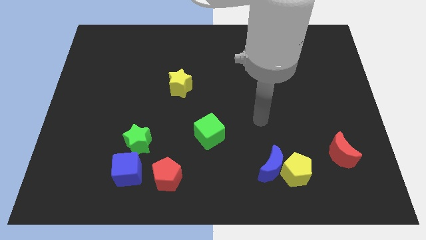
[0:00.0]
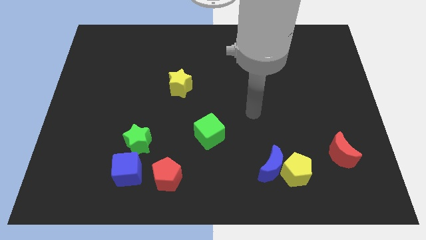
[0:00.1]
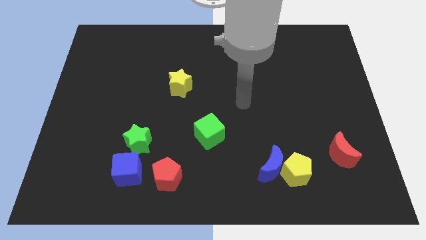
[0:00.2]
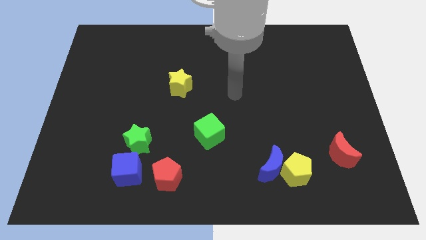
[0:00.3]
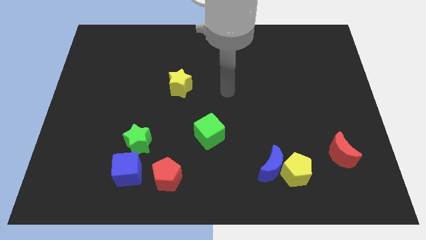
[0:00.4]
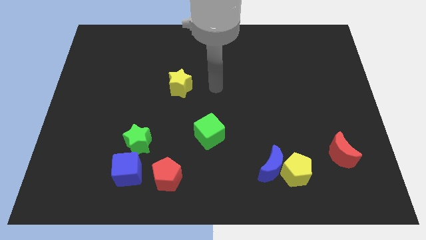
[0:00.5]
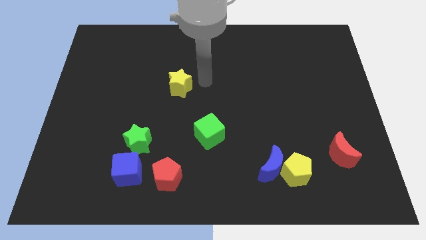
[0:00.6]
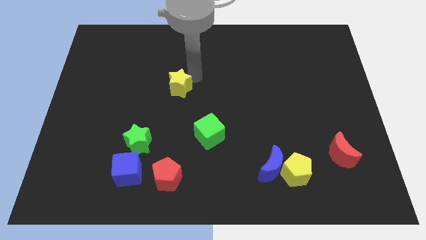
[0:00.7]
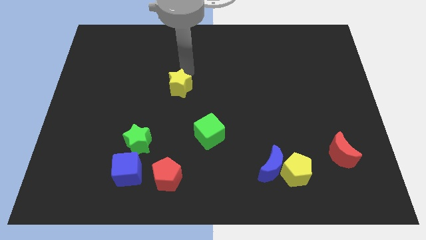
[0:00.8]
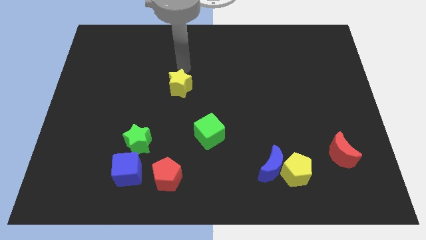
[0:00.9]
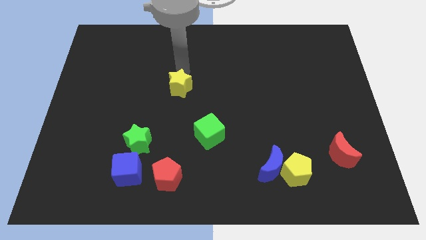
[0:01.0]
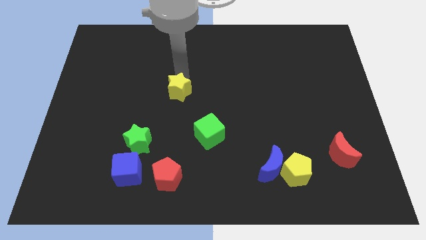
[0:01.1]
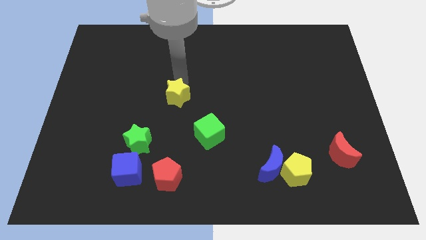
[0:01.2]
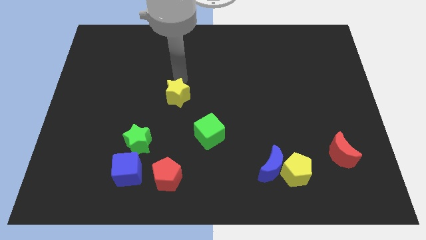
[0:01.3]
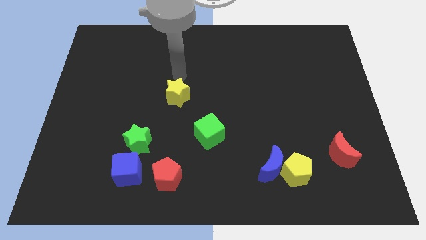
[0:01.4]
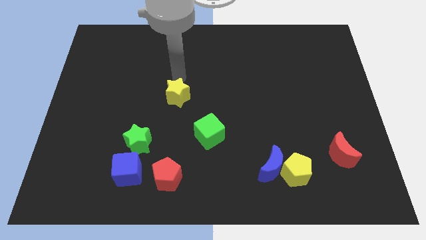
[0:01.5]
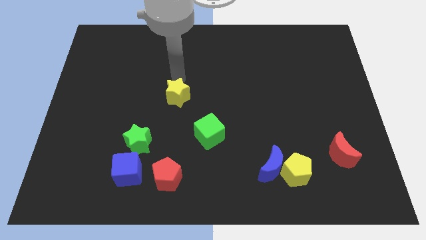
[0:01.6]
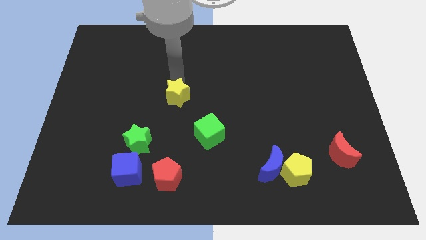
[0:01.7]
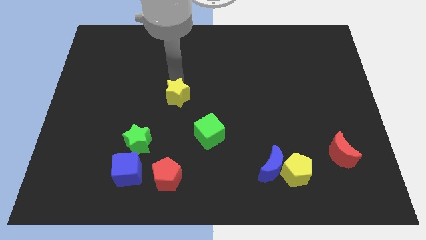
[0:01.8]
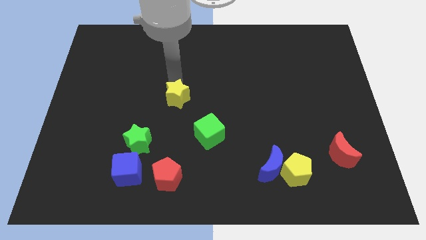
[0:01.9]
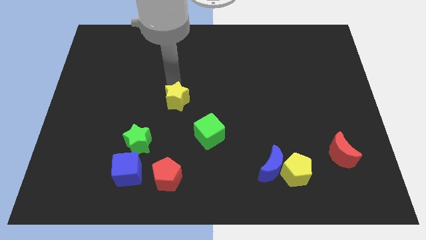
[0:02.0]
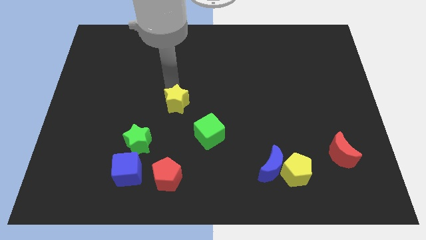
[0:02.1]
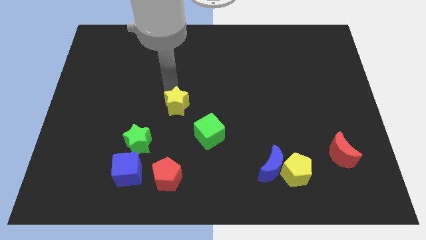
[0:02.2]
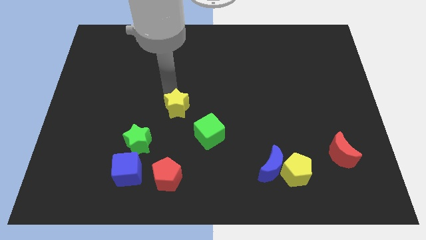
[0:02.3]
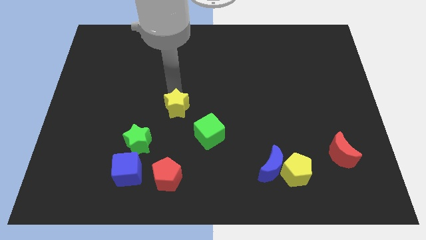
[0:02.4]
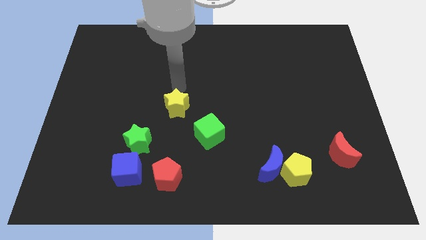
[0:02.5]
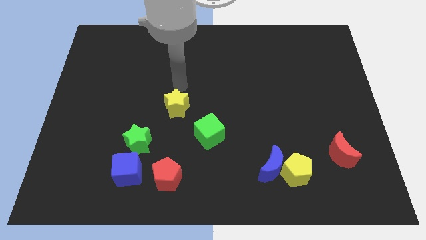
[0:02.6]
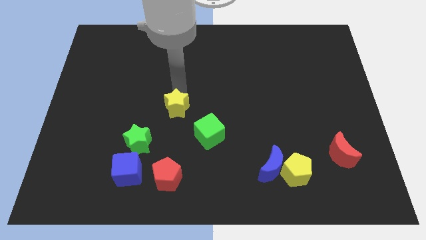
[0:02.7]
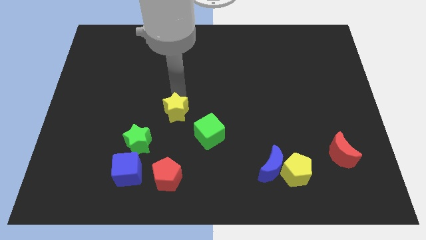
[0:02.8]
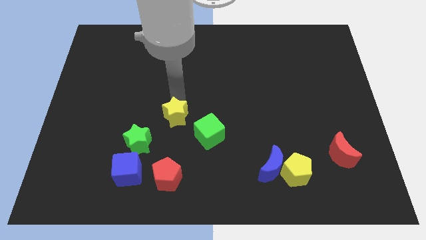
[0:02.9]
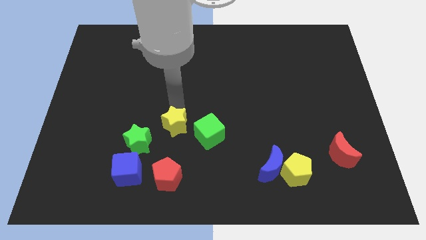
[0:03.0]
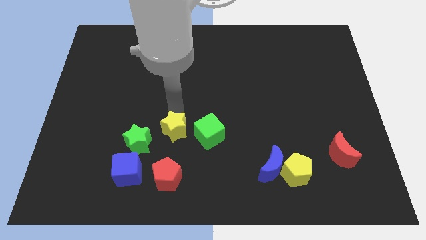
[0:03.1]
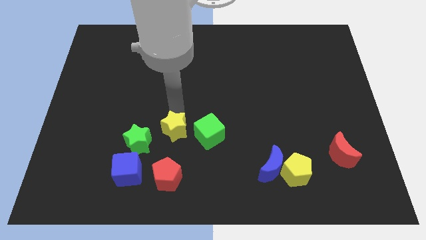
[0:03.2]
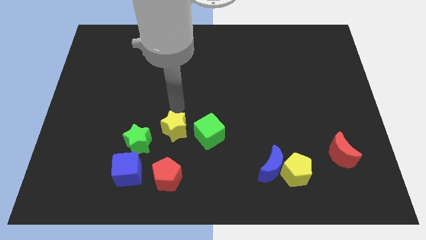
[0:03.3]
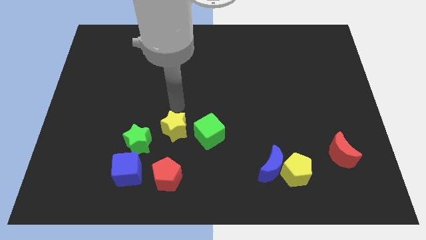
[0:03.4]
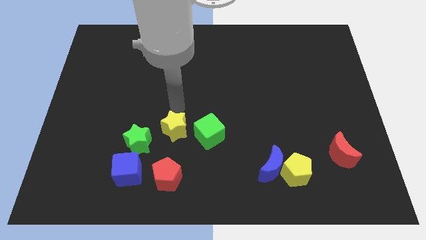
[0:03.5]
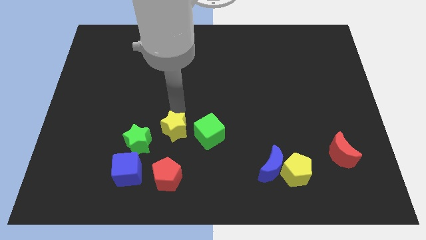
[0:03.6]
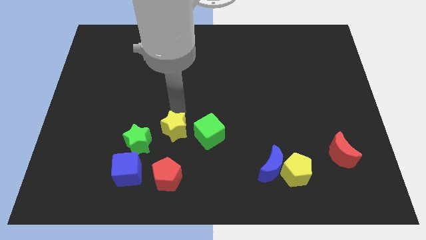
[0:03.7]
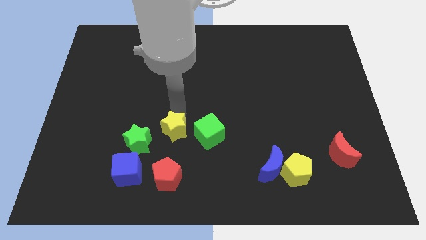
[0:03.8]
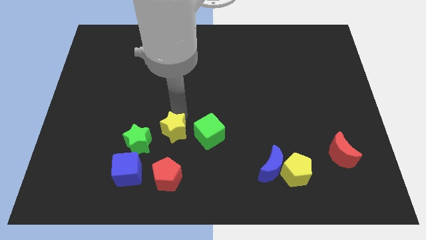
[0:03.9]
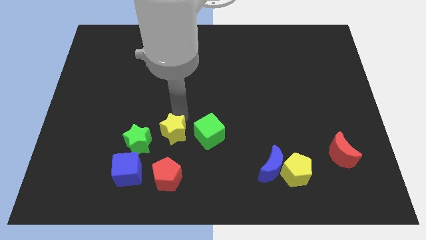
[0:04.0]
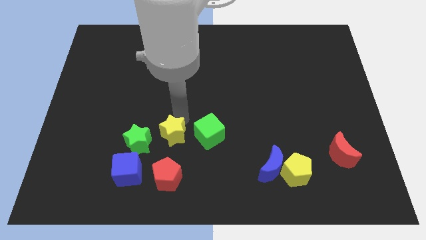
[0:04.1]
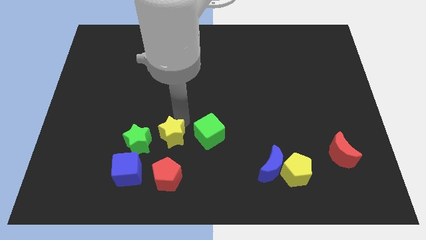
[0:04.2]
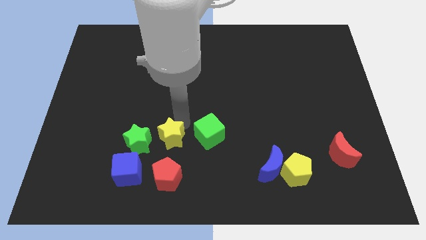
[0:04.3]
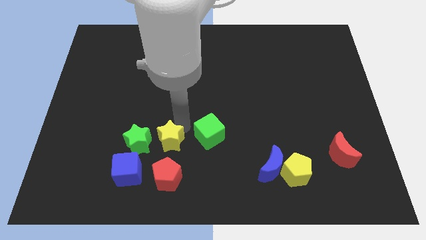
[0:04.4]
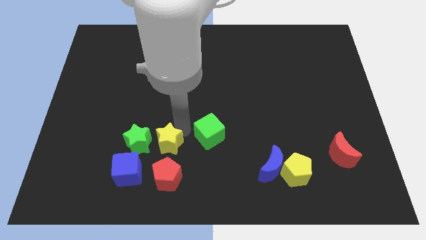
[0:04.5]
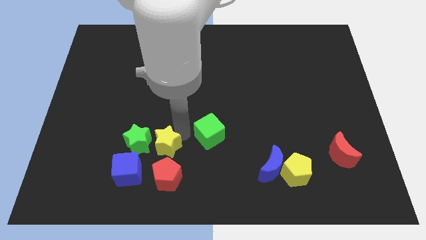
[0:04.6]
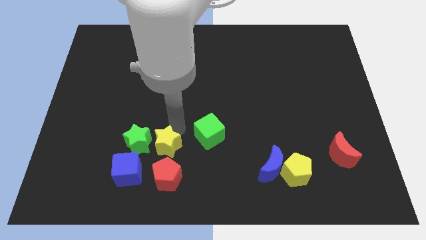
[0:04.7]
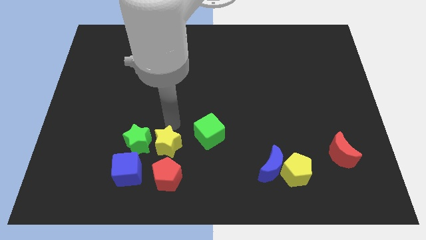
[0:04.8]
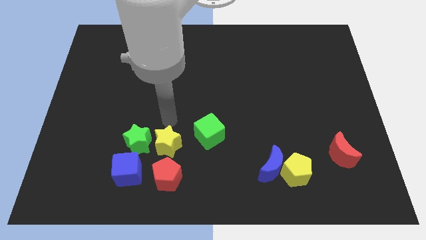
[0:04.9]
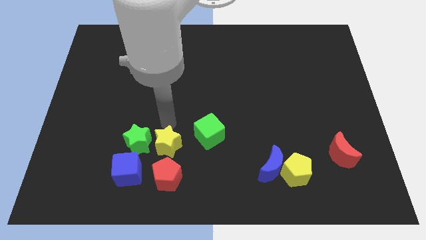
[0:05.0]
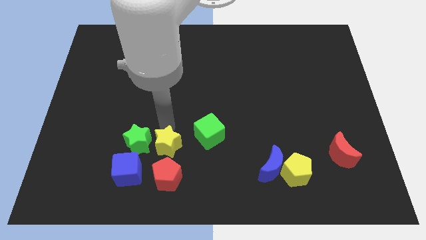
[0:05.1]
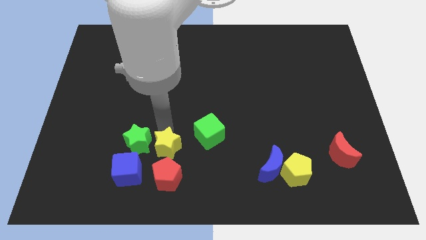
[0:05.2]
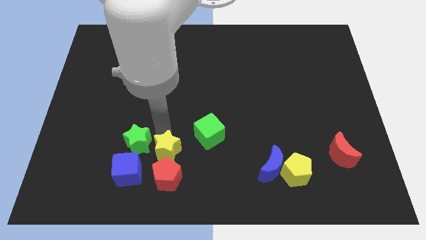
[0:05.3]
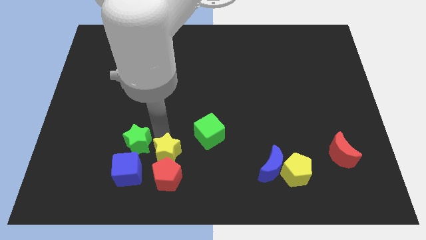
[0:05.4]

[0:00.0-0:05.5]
move the yellow star close to the red pentagon

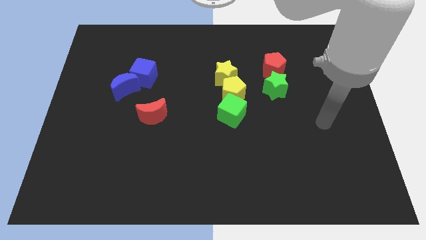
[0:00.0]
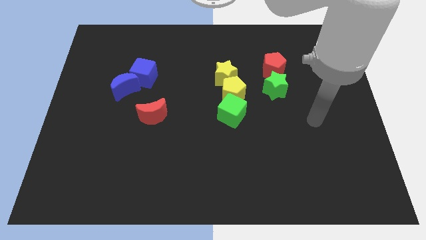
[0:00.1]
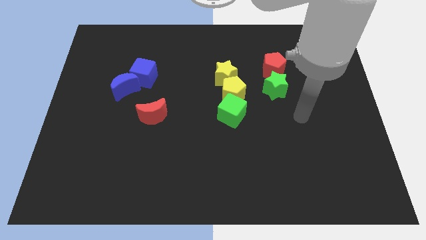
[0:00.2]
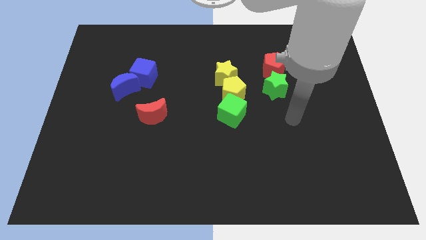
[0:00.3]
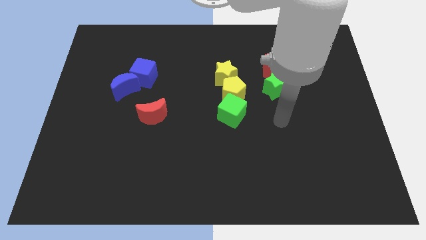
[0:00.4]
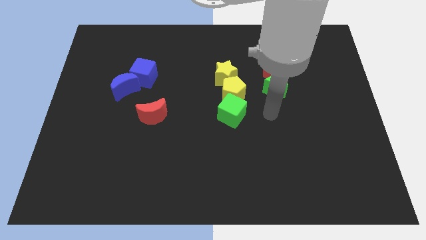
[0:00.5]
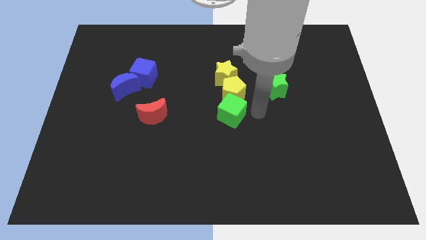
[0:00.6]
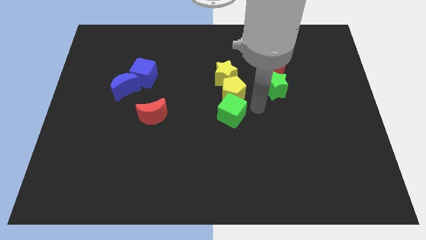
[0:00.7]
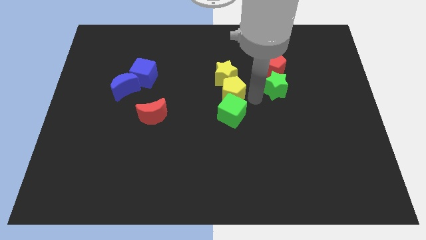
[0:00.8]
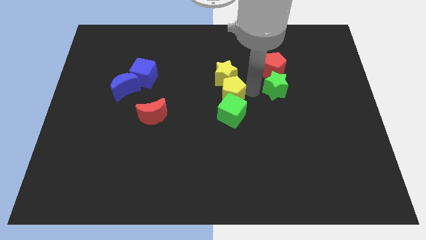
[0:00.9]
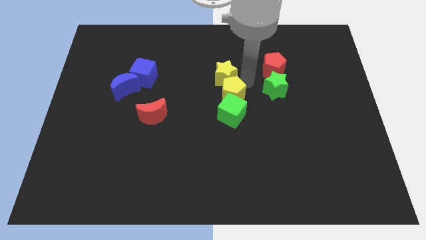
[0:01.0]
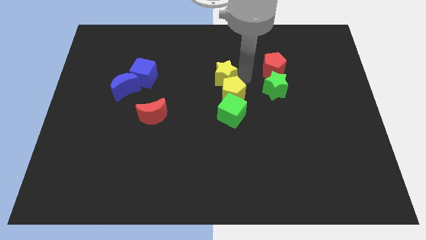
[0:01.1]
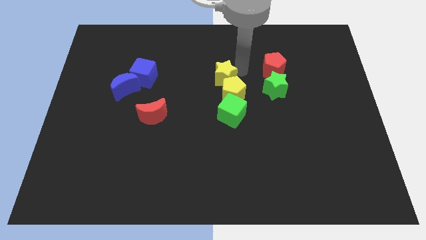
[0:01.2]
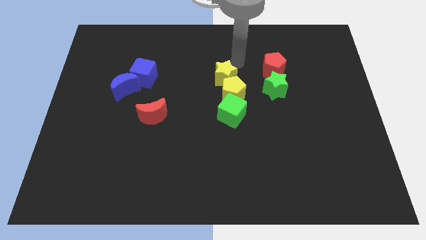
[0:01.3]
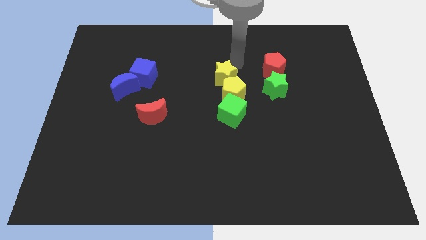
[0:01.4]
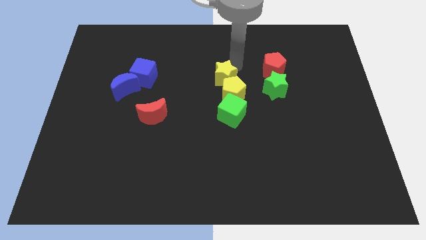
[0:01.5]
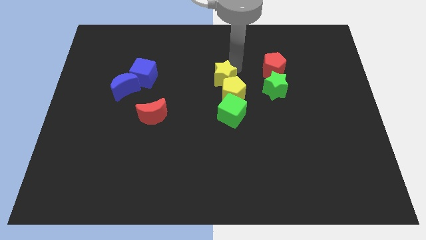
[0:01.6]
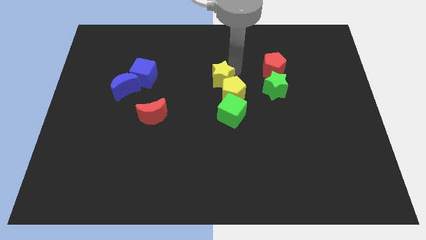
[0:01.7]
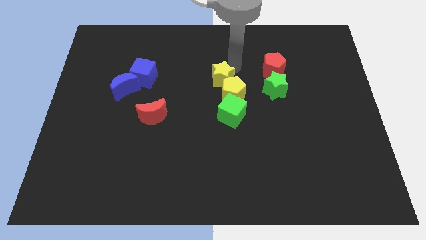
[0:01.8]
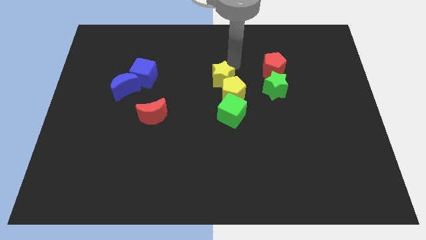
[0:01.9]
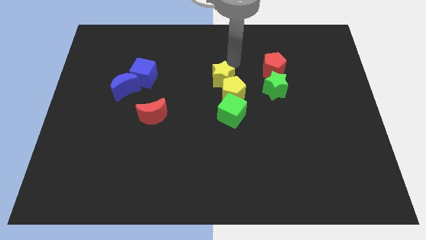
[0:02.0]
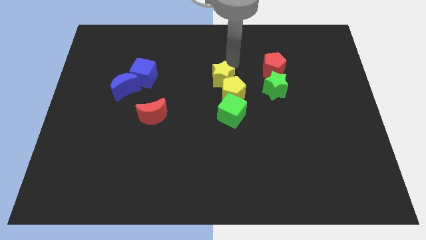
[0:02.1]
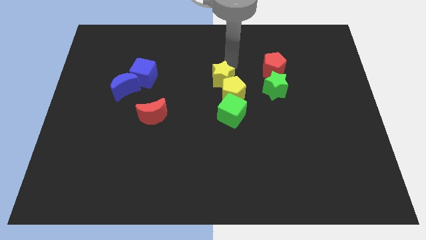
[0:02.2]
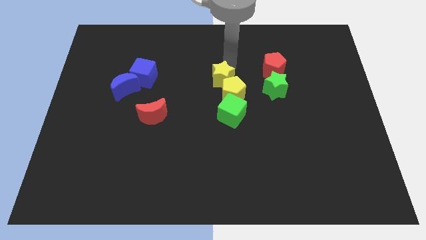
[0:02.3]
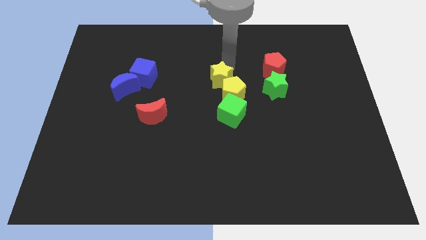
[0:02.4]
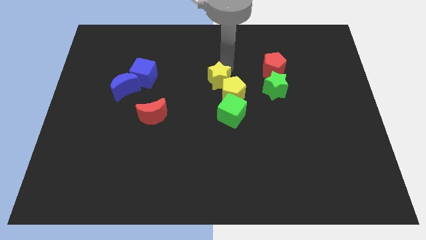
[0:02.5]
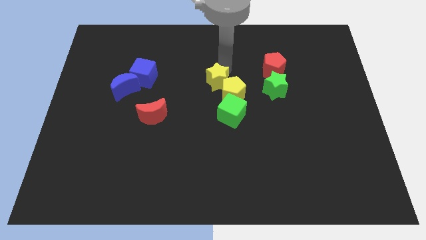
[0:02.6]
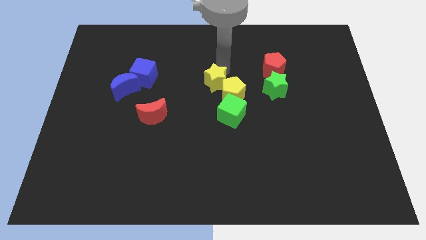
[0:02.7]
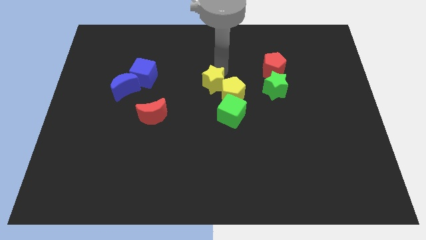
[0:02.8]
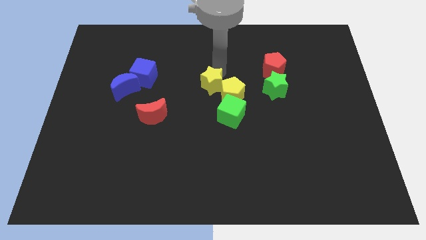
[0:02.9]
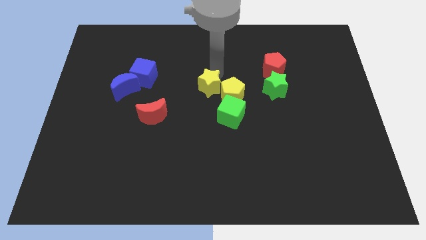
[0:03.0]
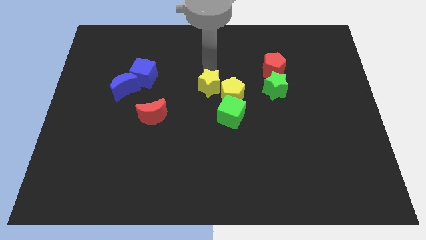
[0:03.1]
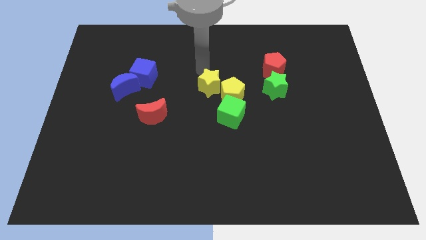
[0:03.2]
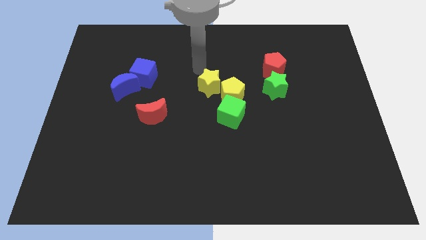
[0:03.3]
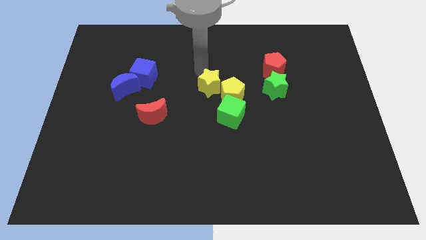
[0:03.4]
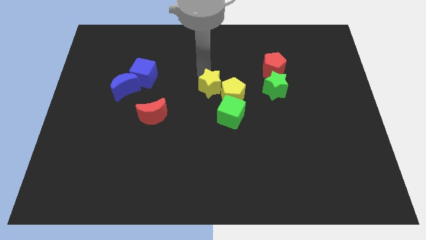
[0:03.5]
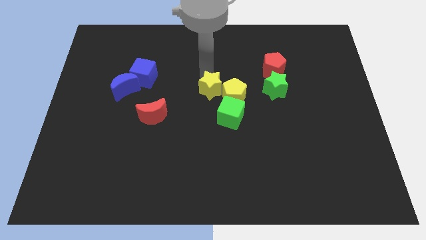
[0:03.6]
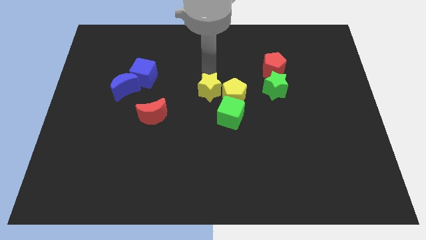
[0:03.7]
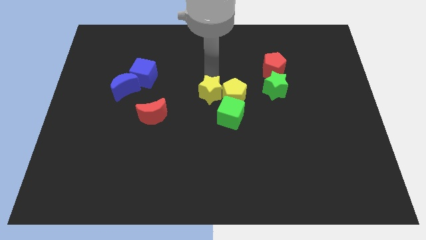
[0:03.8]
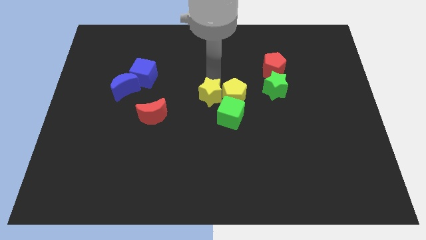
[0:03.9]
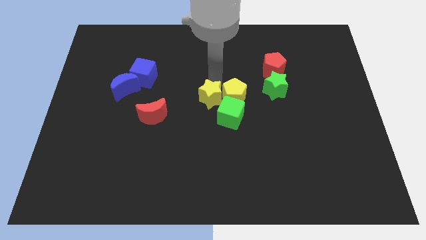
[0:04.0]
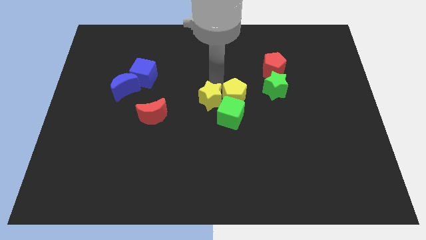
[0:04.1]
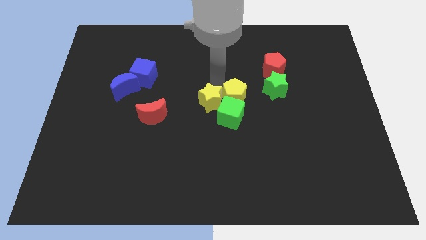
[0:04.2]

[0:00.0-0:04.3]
slide the yellow star to the green cube
